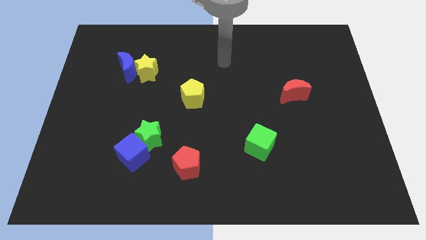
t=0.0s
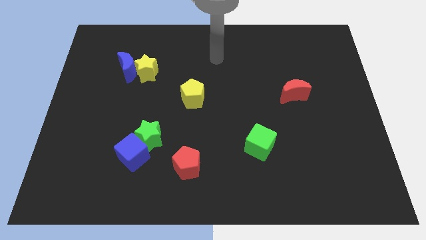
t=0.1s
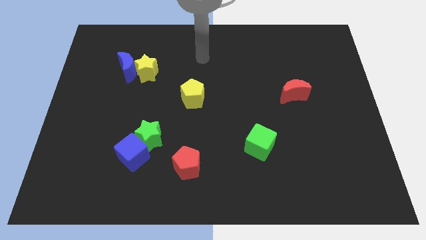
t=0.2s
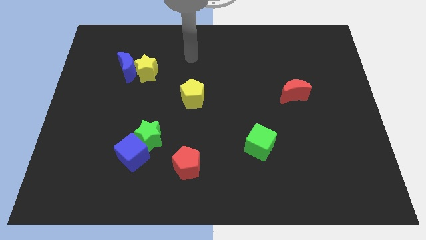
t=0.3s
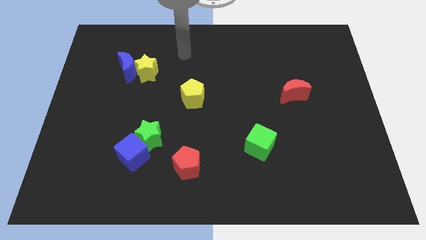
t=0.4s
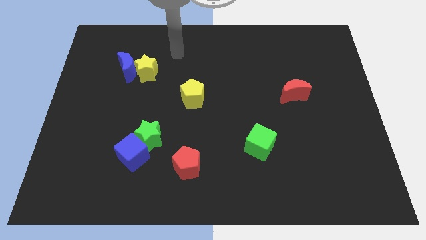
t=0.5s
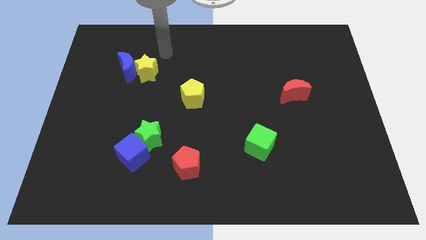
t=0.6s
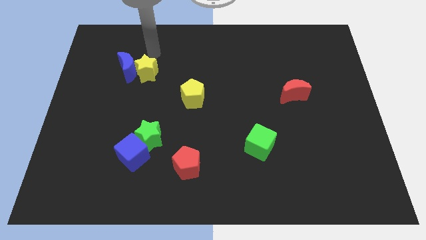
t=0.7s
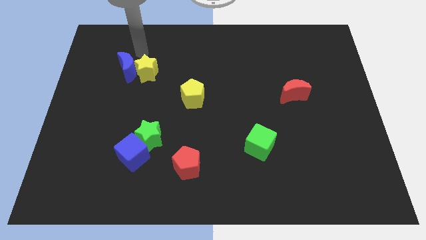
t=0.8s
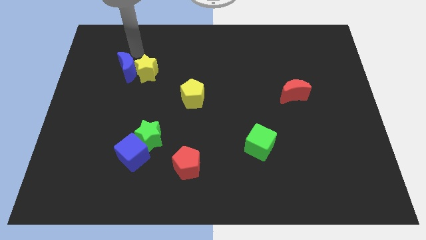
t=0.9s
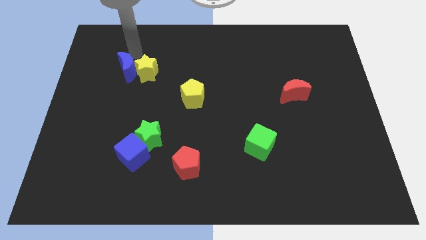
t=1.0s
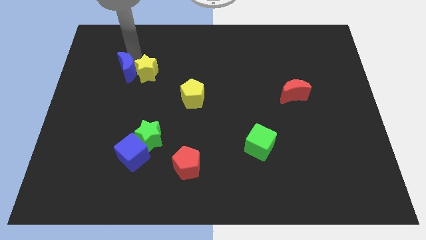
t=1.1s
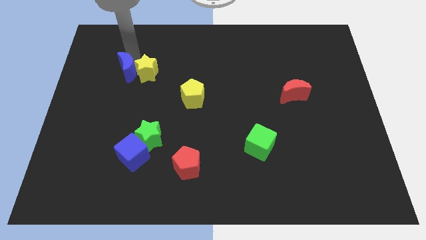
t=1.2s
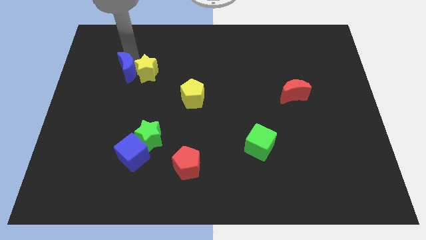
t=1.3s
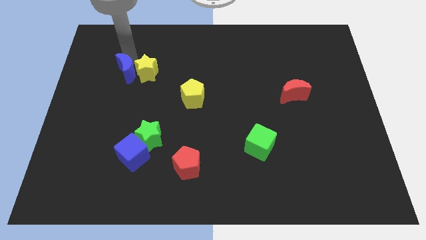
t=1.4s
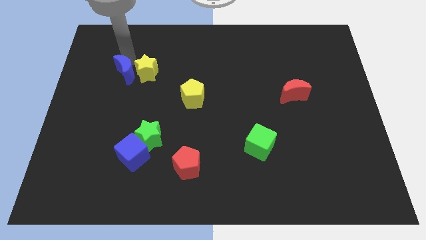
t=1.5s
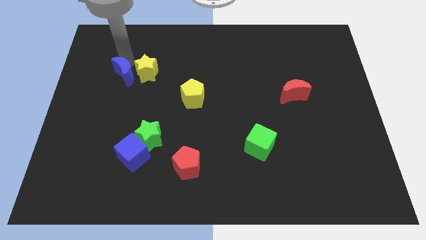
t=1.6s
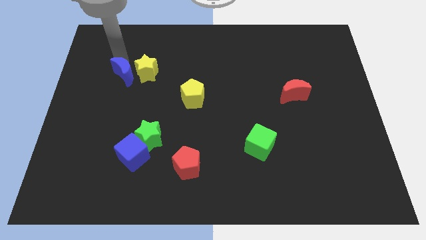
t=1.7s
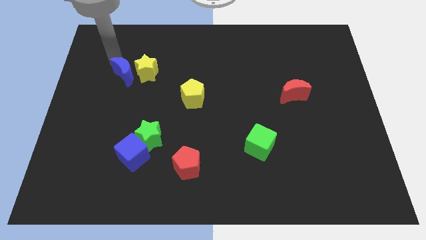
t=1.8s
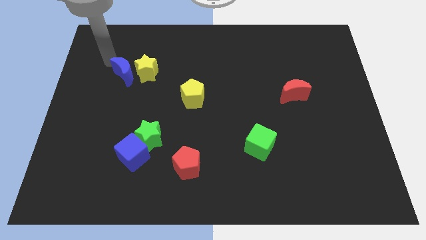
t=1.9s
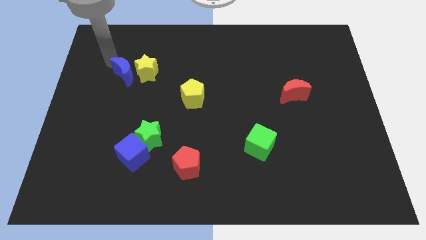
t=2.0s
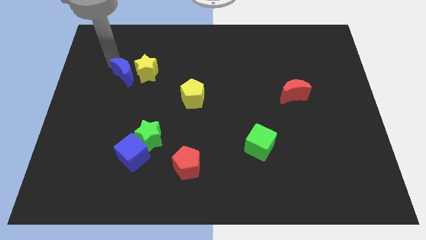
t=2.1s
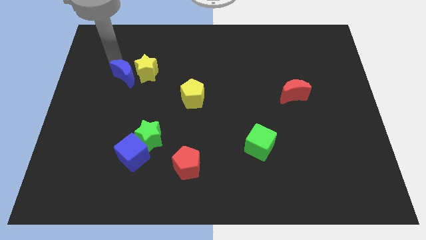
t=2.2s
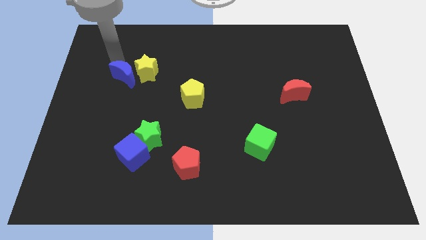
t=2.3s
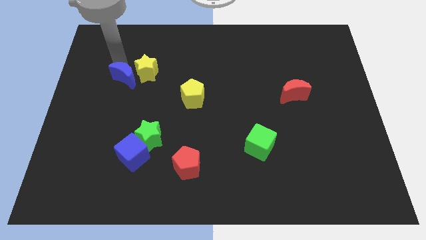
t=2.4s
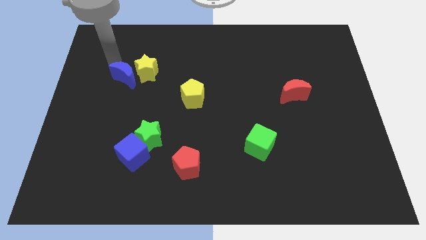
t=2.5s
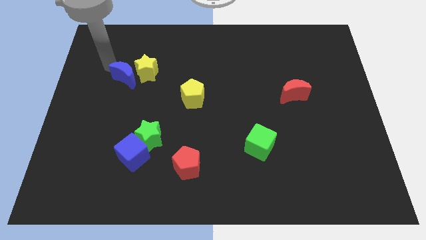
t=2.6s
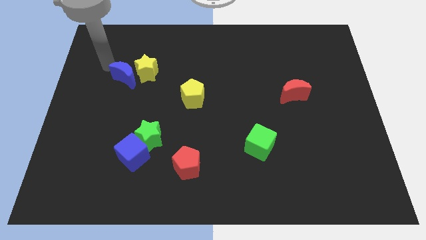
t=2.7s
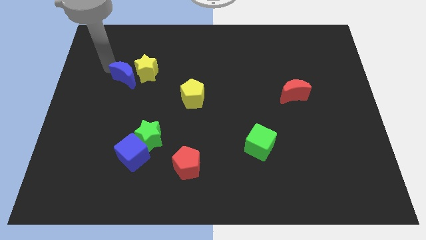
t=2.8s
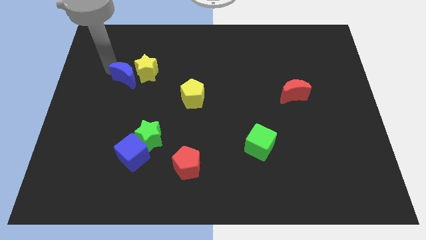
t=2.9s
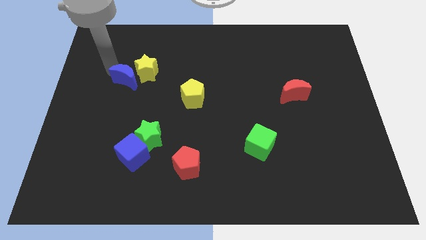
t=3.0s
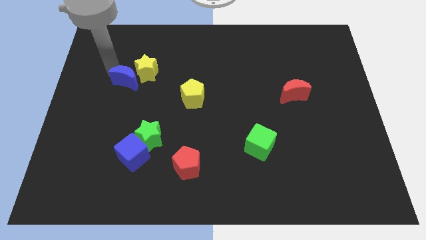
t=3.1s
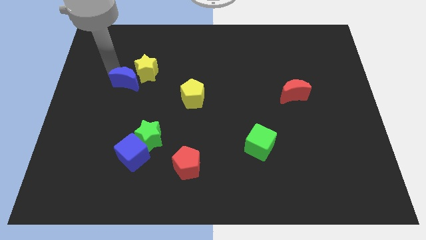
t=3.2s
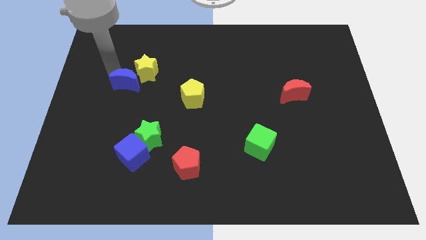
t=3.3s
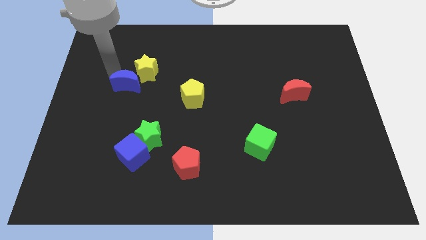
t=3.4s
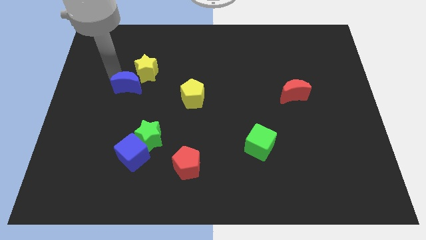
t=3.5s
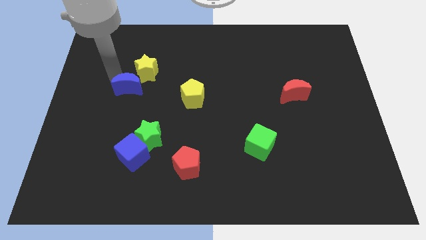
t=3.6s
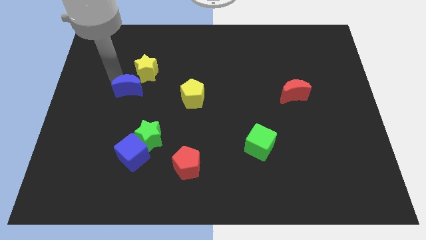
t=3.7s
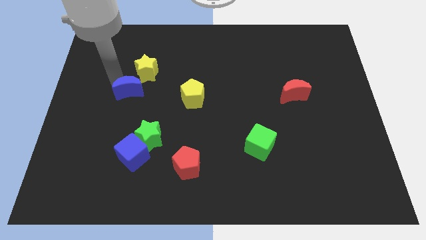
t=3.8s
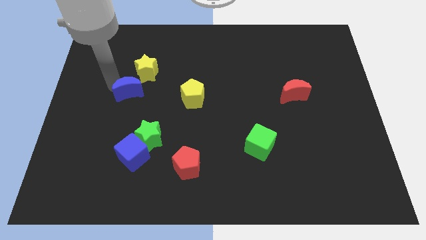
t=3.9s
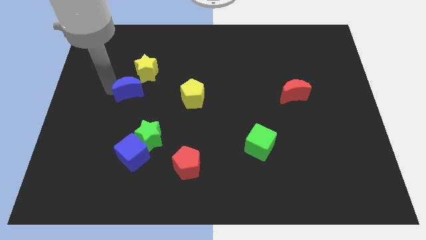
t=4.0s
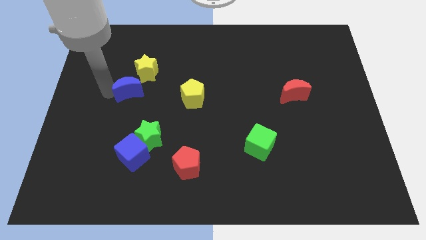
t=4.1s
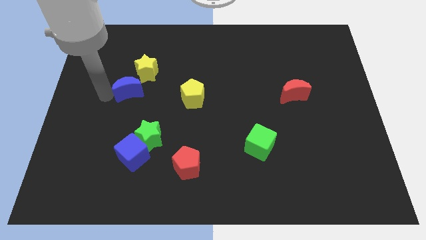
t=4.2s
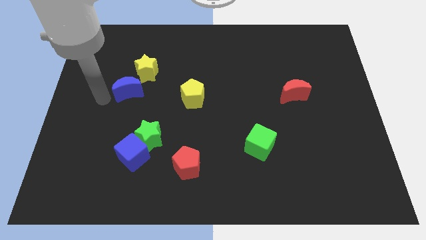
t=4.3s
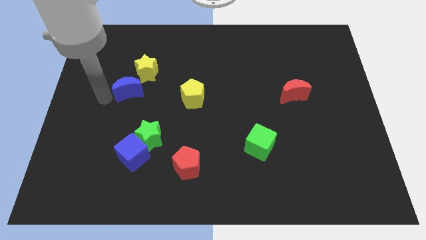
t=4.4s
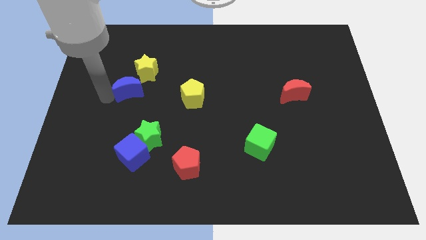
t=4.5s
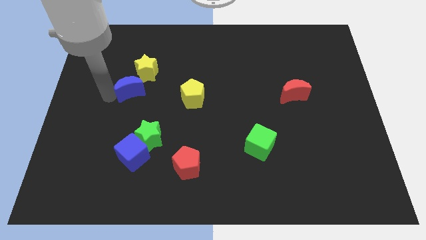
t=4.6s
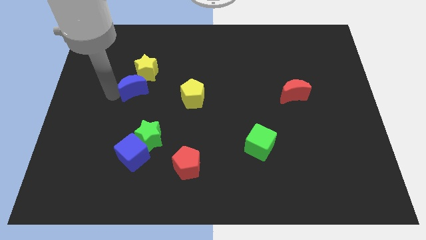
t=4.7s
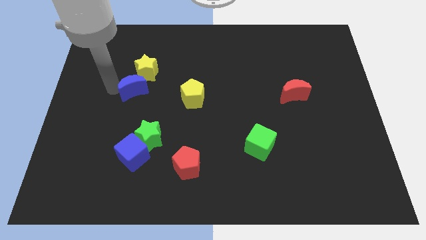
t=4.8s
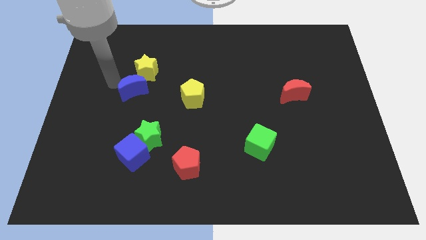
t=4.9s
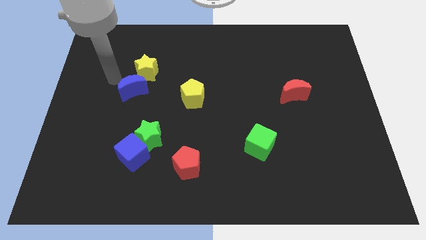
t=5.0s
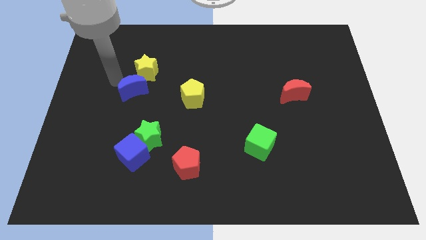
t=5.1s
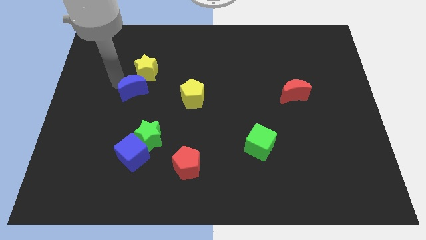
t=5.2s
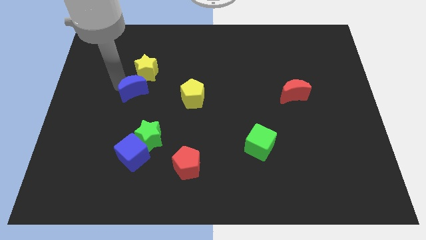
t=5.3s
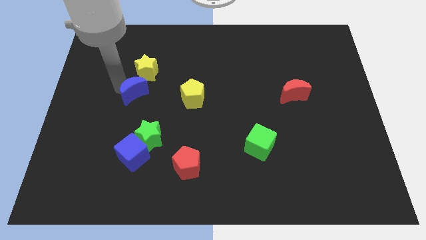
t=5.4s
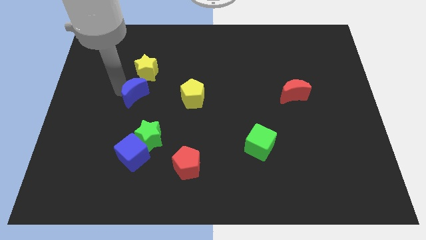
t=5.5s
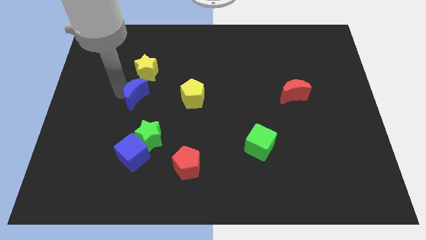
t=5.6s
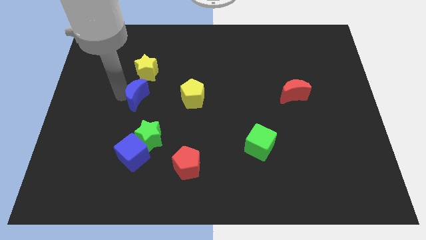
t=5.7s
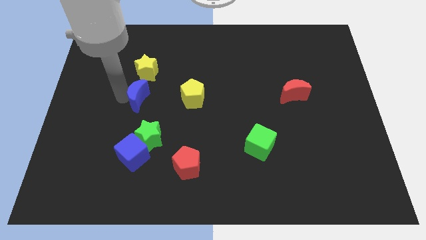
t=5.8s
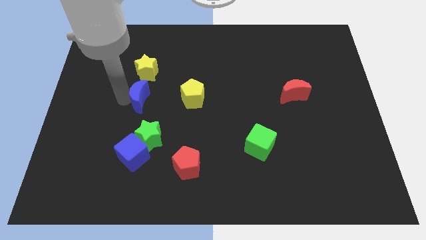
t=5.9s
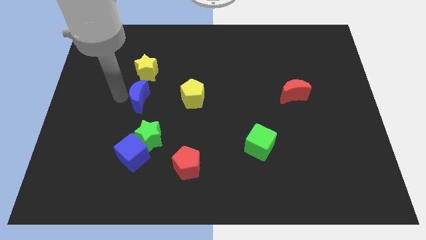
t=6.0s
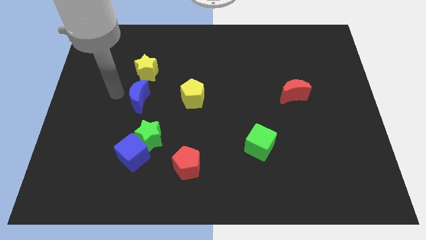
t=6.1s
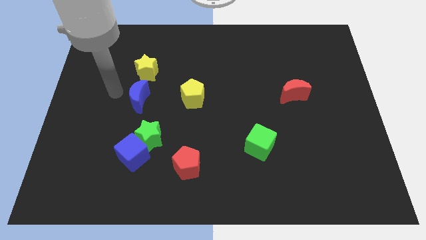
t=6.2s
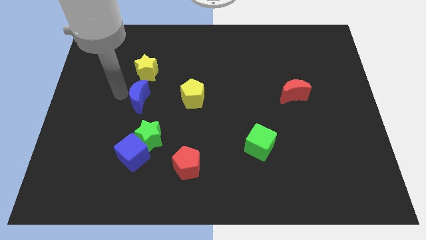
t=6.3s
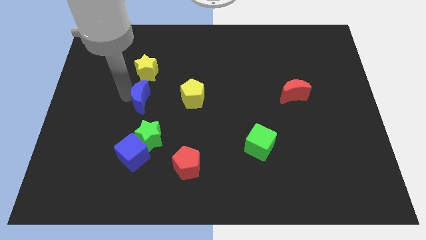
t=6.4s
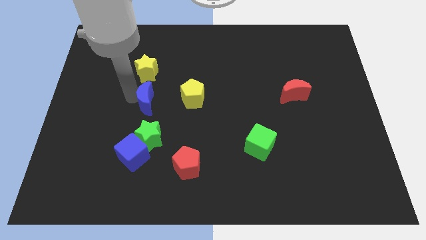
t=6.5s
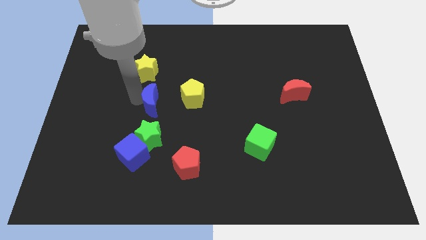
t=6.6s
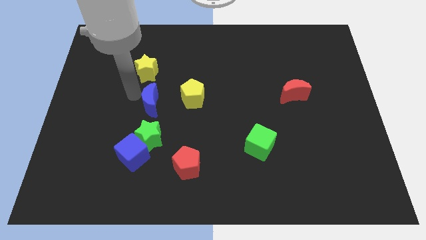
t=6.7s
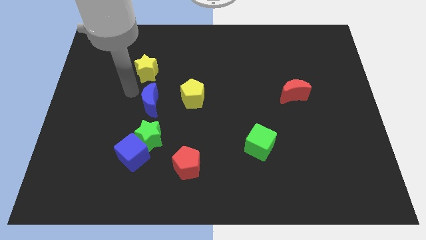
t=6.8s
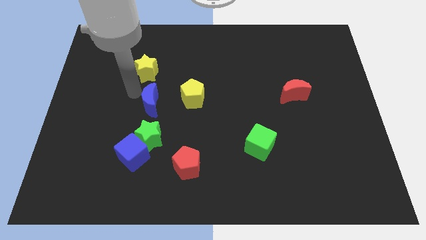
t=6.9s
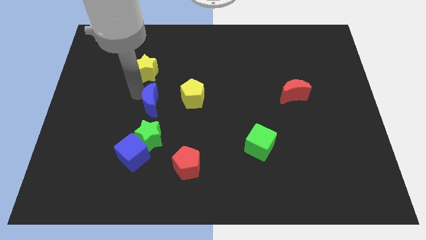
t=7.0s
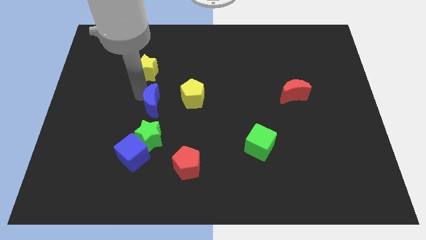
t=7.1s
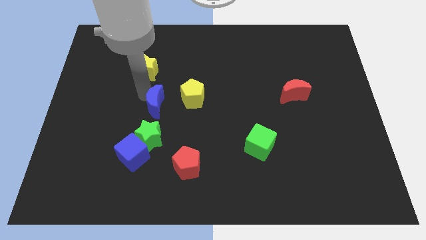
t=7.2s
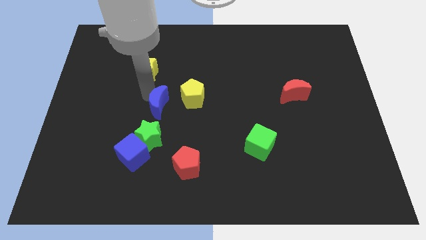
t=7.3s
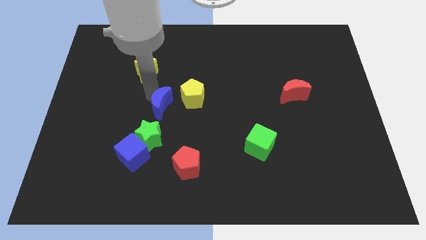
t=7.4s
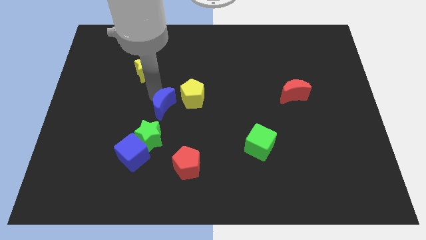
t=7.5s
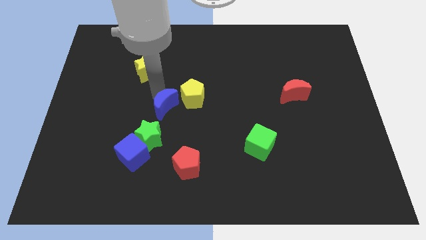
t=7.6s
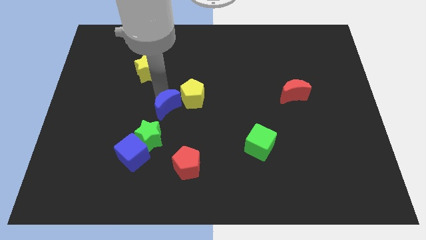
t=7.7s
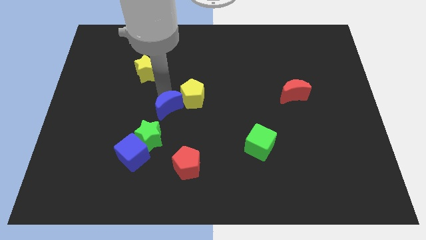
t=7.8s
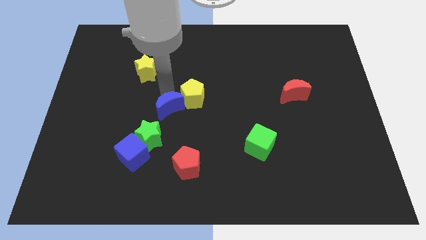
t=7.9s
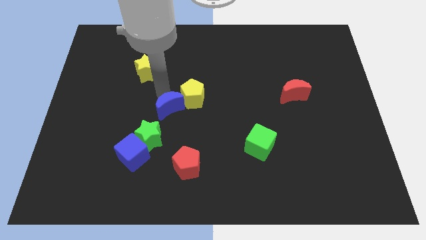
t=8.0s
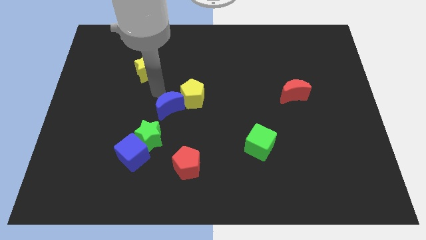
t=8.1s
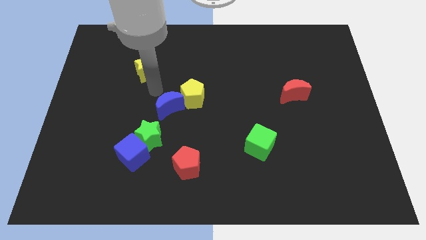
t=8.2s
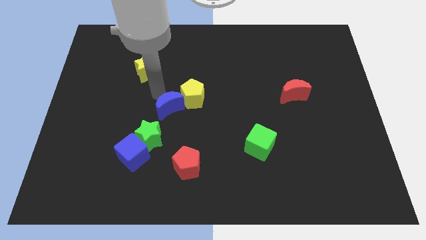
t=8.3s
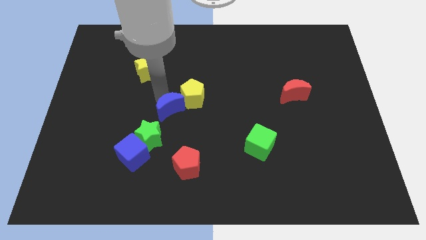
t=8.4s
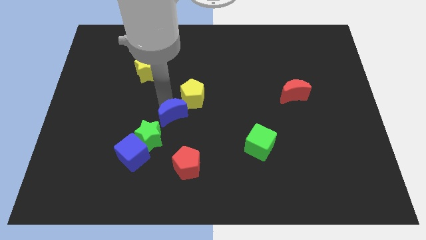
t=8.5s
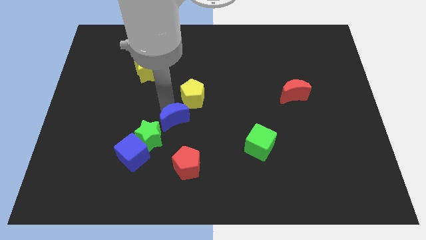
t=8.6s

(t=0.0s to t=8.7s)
push the blue moon diagonally down and right
